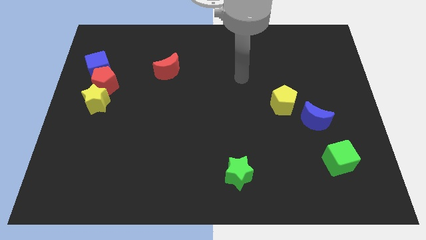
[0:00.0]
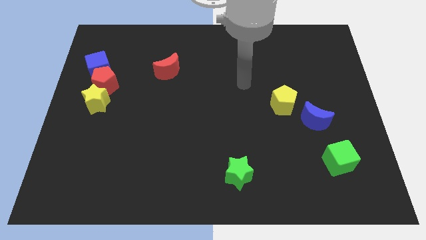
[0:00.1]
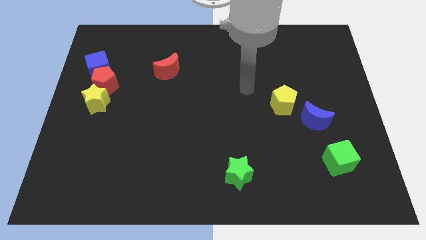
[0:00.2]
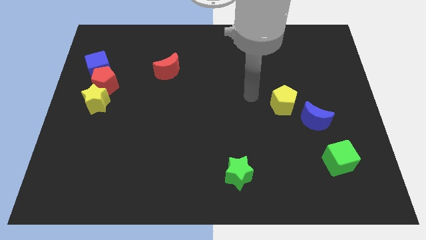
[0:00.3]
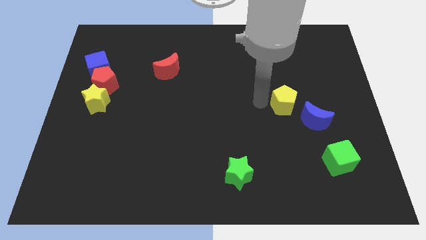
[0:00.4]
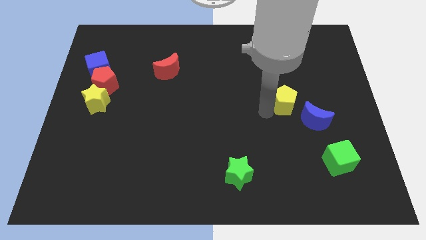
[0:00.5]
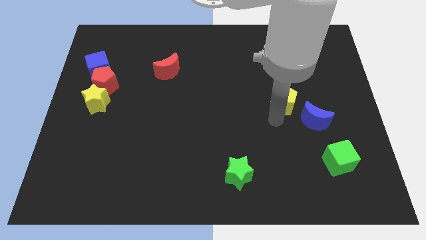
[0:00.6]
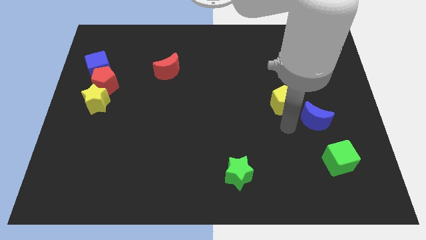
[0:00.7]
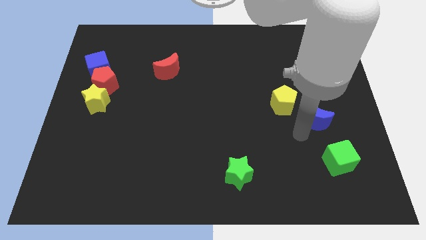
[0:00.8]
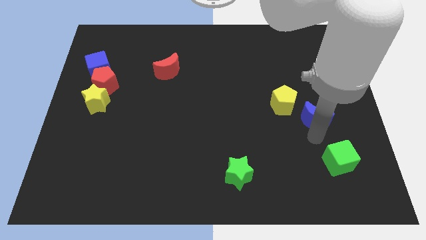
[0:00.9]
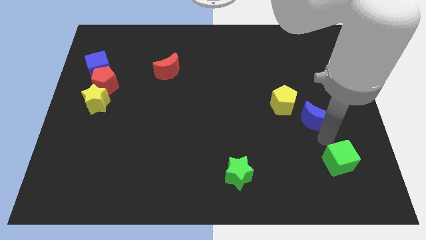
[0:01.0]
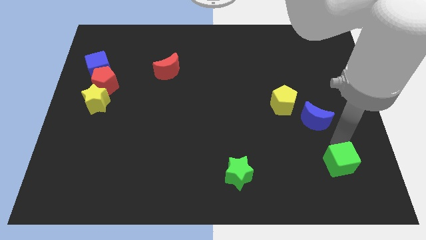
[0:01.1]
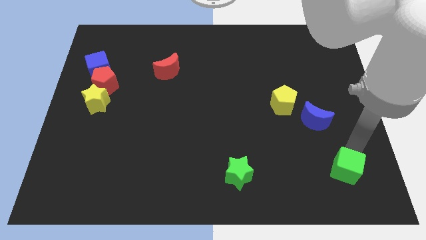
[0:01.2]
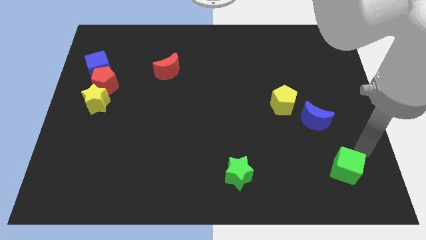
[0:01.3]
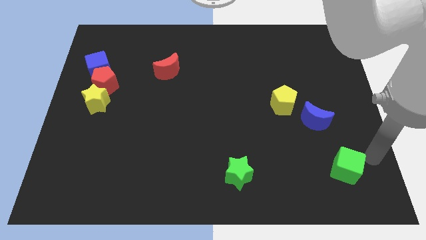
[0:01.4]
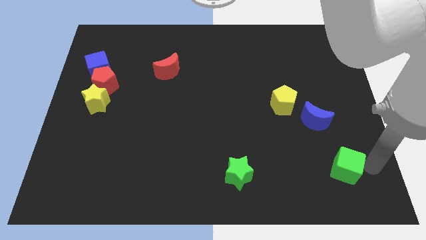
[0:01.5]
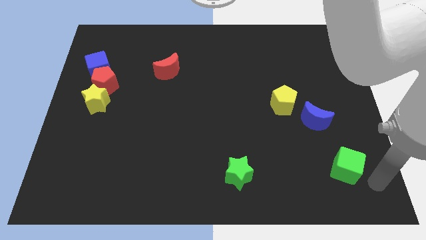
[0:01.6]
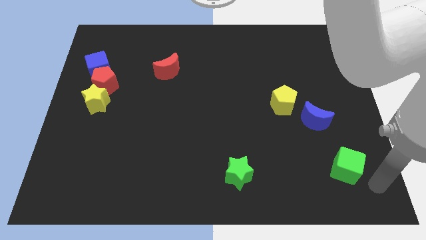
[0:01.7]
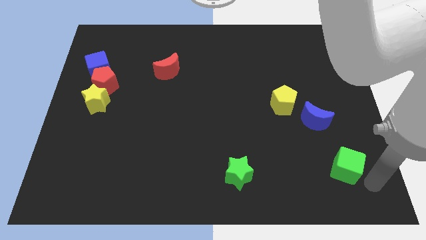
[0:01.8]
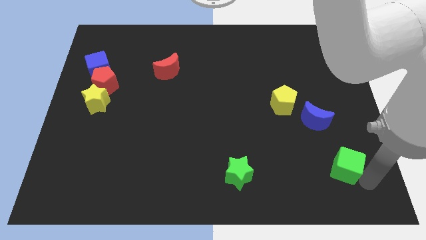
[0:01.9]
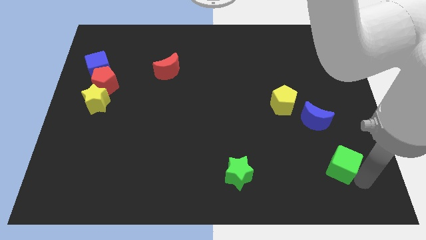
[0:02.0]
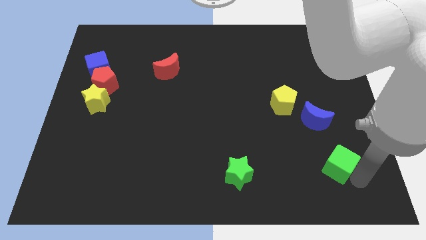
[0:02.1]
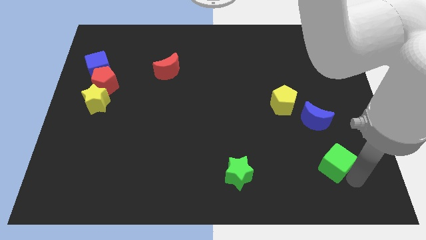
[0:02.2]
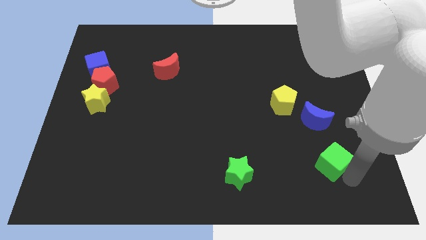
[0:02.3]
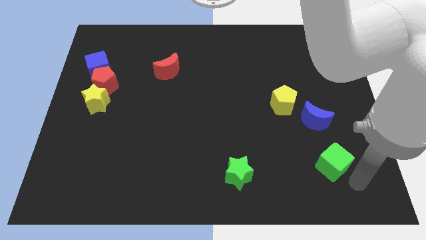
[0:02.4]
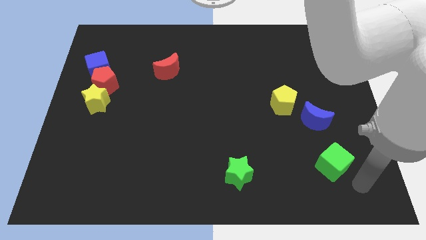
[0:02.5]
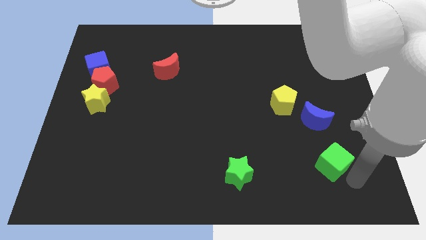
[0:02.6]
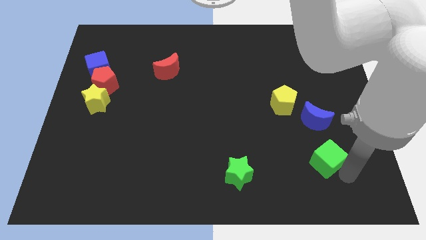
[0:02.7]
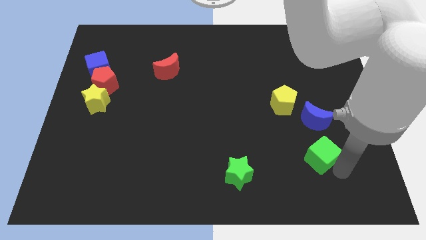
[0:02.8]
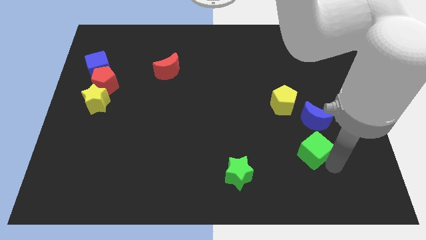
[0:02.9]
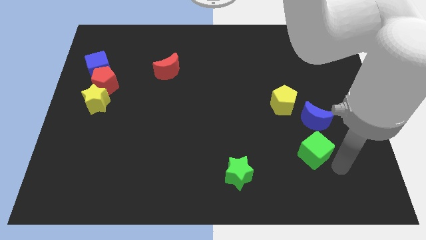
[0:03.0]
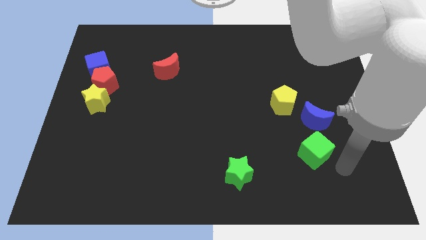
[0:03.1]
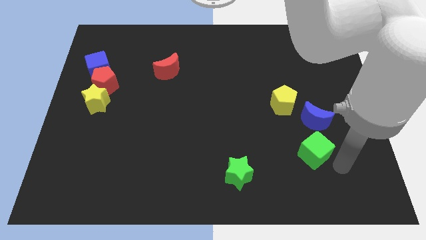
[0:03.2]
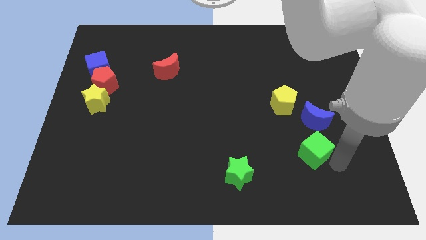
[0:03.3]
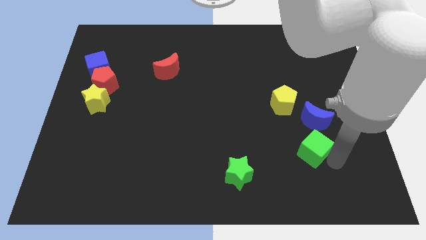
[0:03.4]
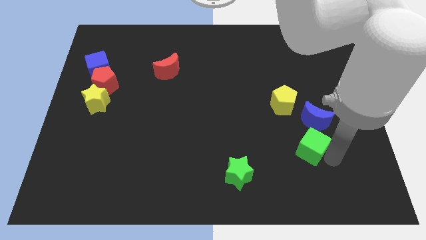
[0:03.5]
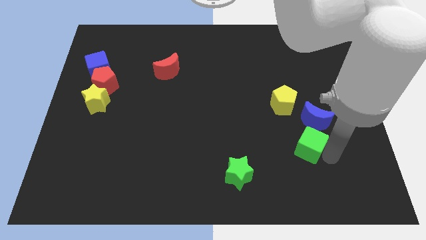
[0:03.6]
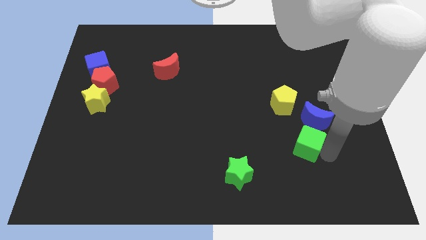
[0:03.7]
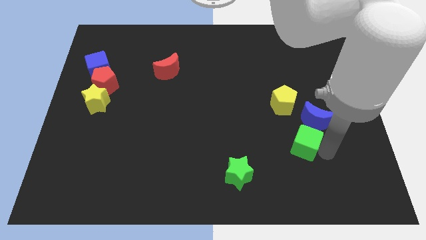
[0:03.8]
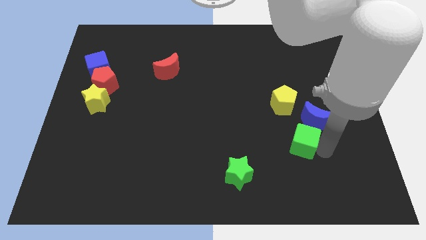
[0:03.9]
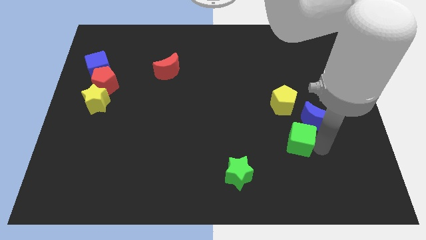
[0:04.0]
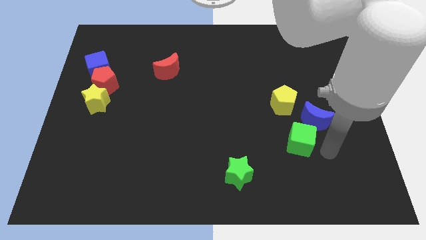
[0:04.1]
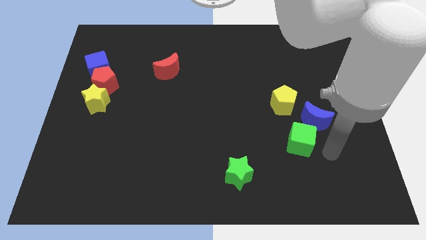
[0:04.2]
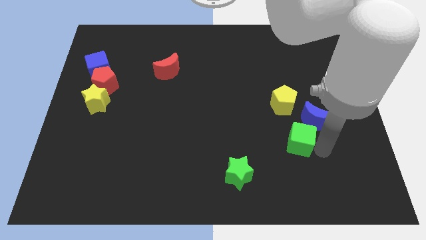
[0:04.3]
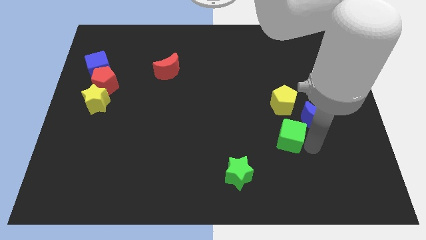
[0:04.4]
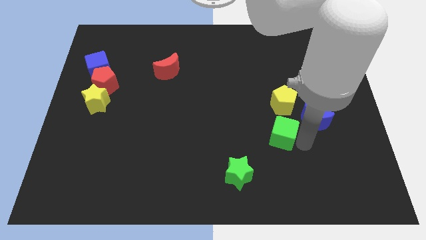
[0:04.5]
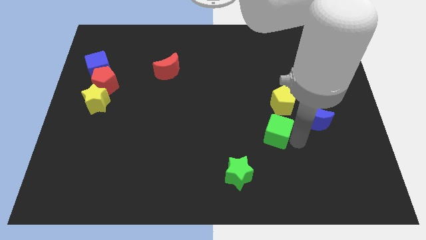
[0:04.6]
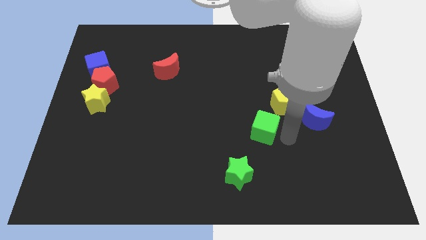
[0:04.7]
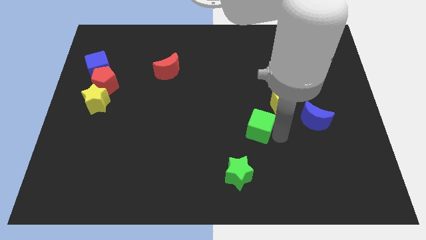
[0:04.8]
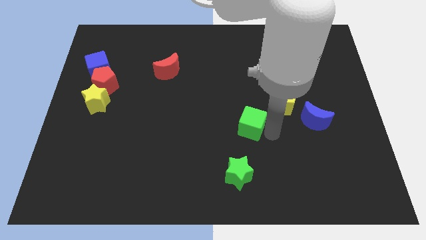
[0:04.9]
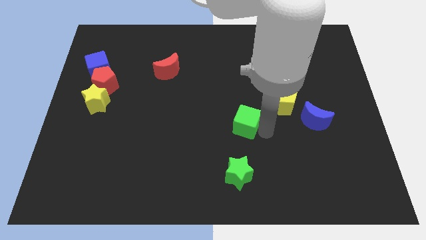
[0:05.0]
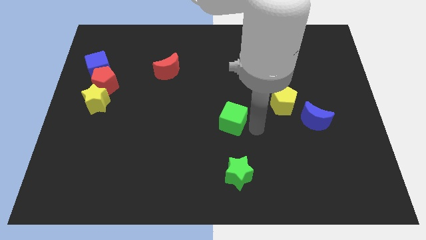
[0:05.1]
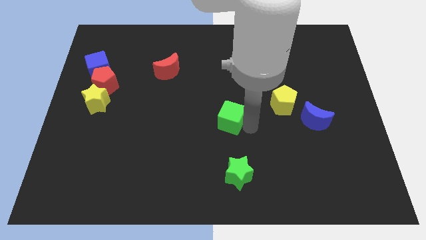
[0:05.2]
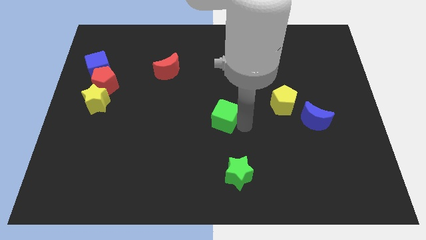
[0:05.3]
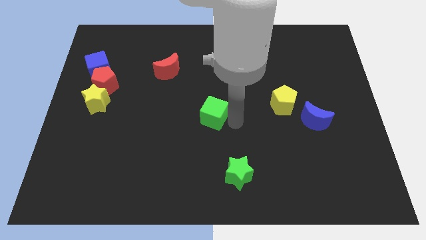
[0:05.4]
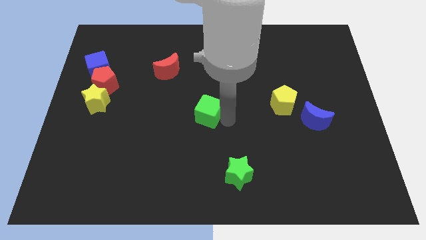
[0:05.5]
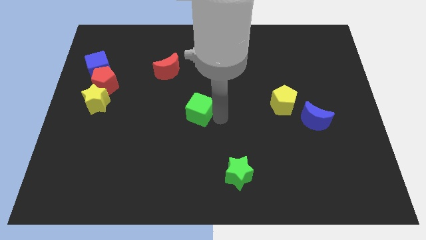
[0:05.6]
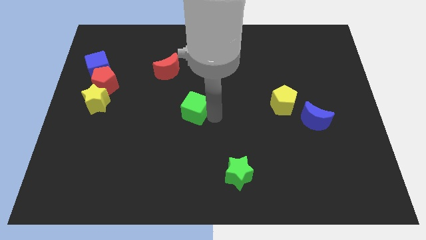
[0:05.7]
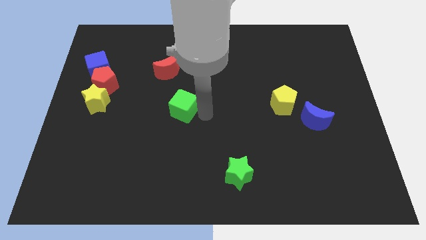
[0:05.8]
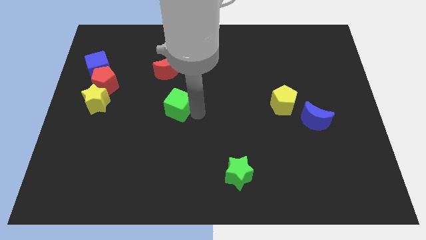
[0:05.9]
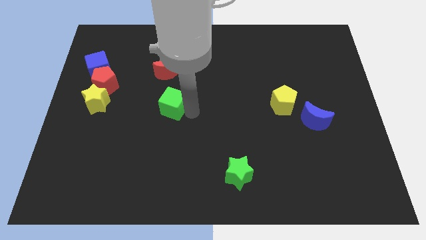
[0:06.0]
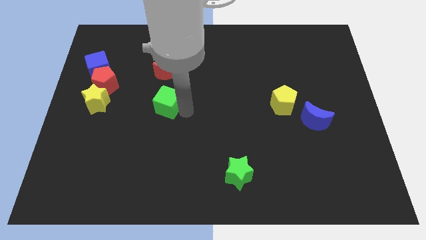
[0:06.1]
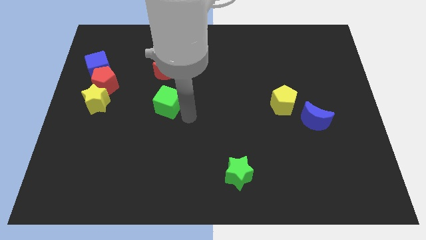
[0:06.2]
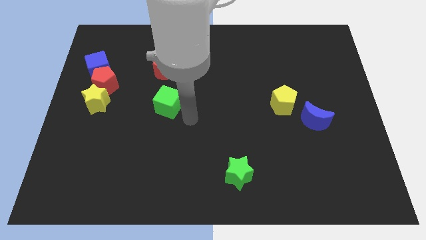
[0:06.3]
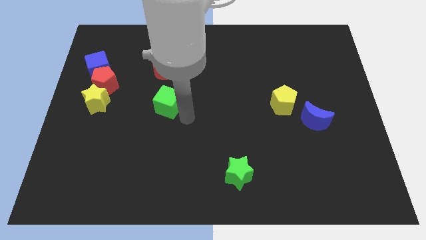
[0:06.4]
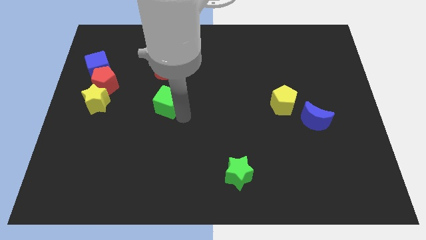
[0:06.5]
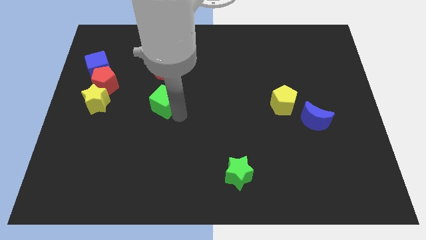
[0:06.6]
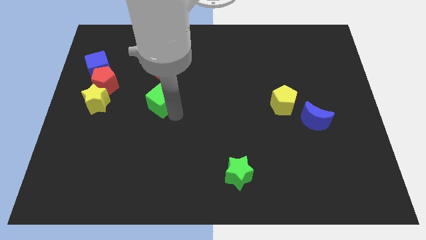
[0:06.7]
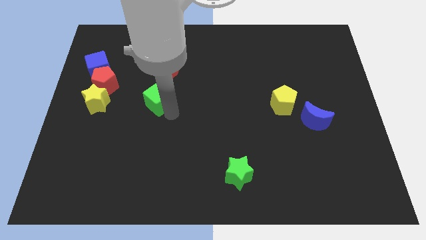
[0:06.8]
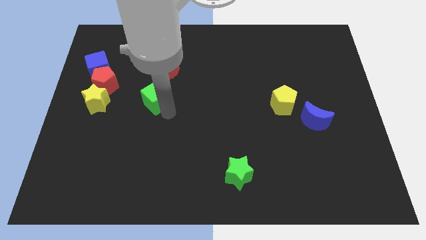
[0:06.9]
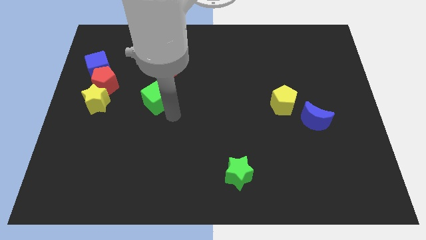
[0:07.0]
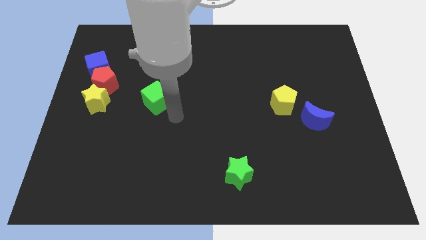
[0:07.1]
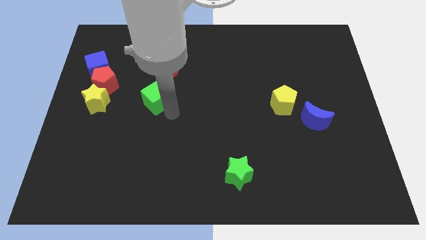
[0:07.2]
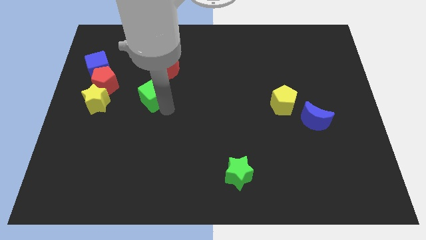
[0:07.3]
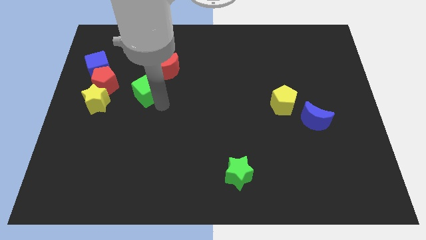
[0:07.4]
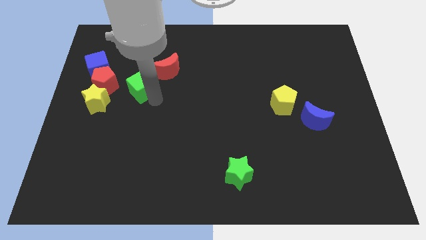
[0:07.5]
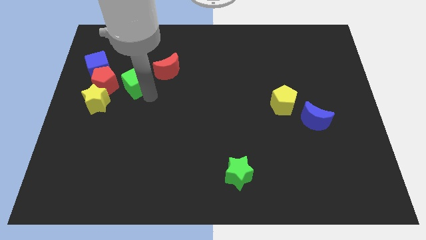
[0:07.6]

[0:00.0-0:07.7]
move the green cube just left of the red moon
